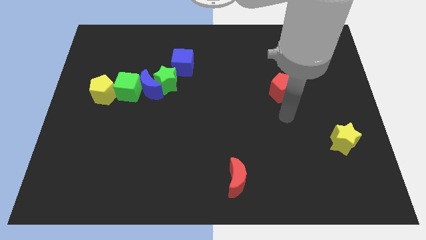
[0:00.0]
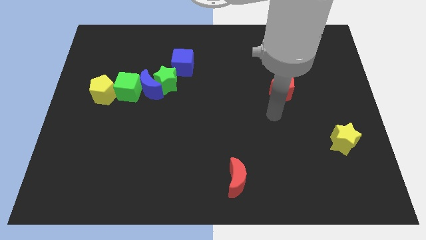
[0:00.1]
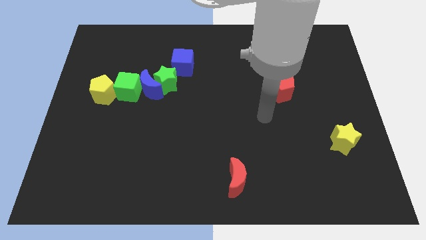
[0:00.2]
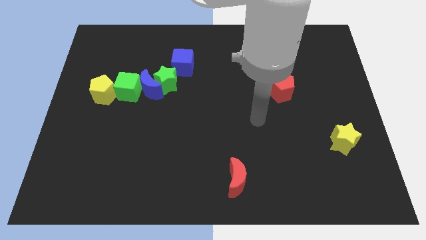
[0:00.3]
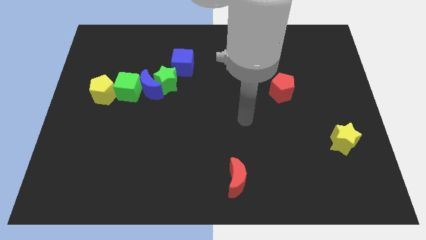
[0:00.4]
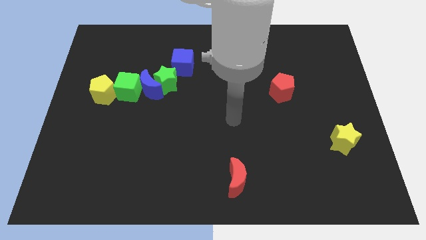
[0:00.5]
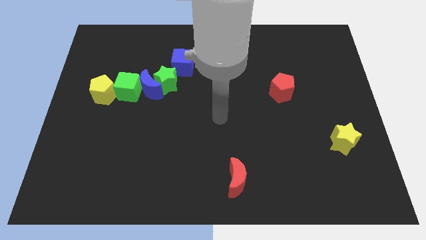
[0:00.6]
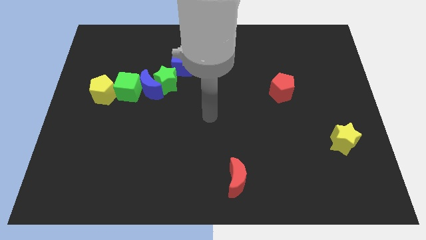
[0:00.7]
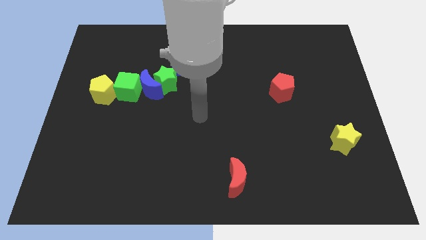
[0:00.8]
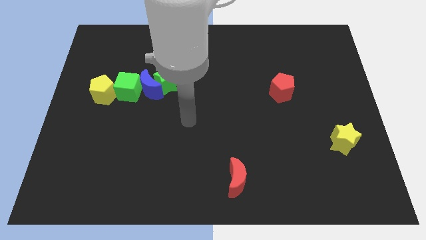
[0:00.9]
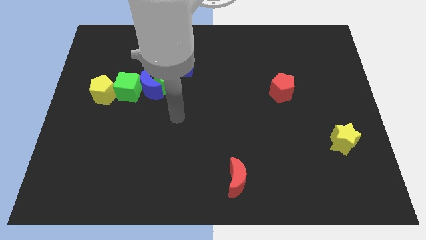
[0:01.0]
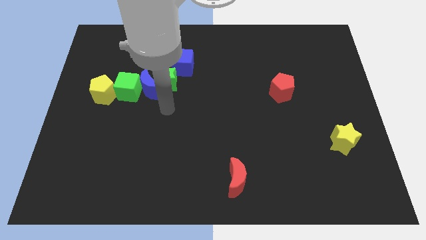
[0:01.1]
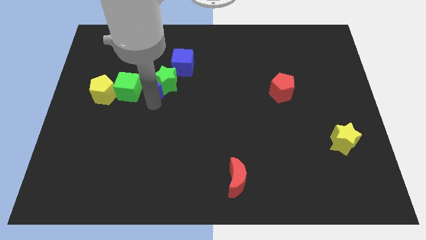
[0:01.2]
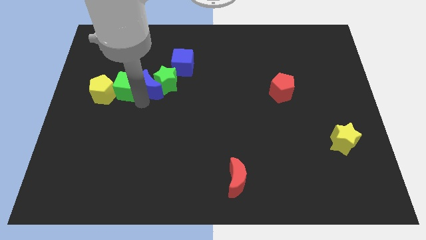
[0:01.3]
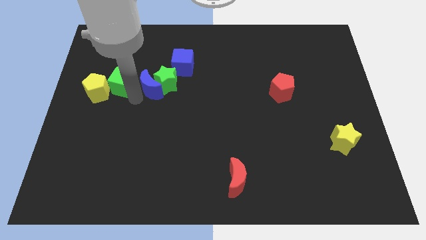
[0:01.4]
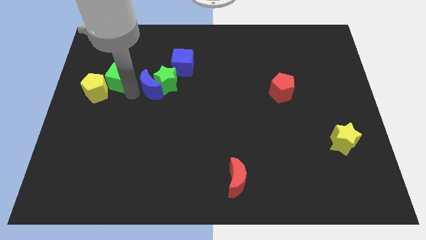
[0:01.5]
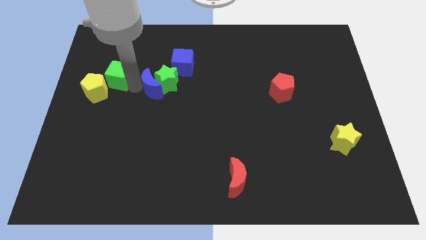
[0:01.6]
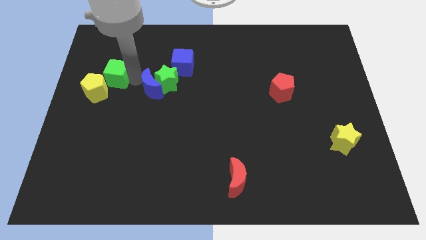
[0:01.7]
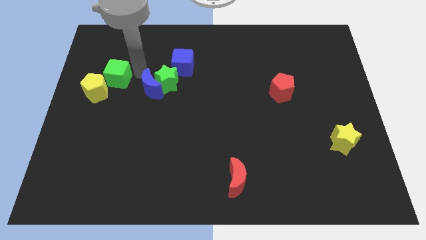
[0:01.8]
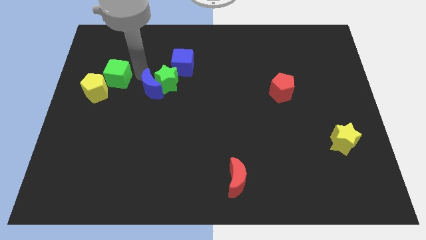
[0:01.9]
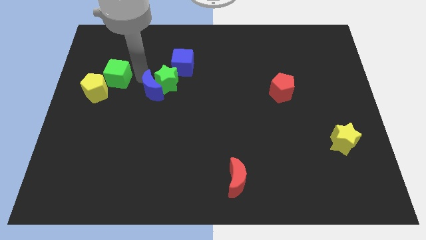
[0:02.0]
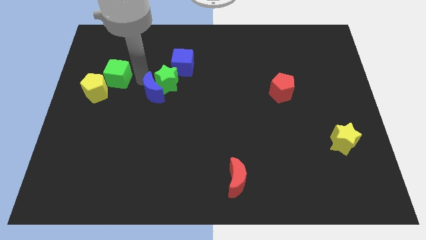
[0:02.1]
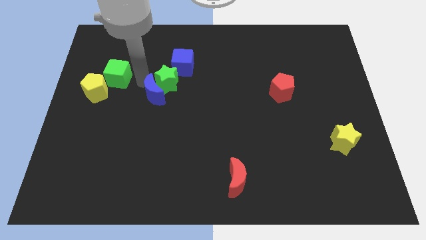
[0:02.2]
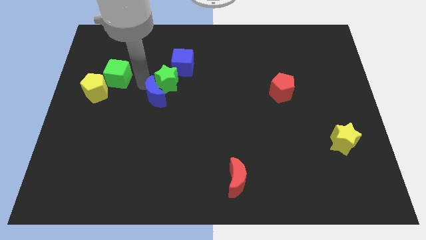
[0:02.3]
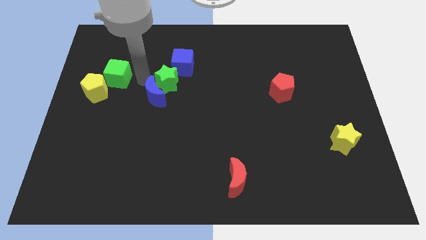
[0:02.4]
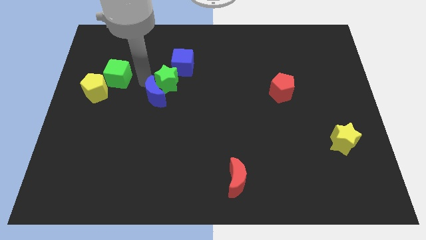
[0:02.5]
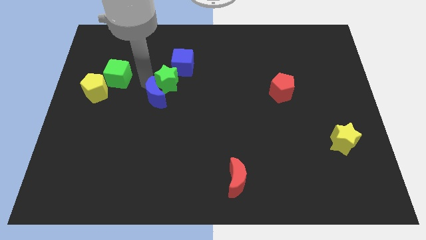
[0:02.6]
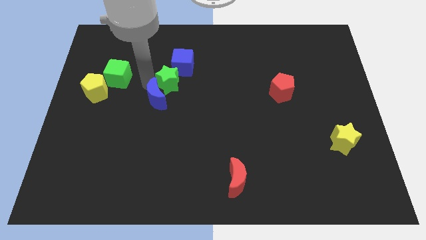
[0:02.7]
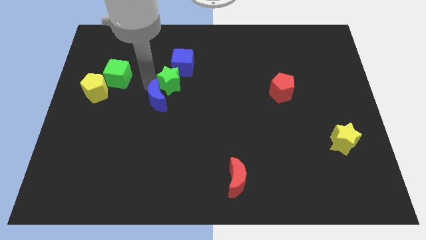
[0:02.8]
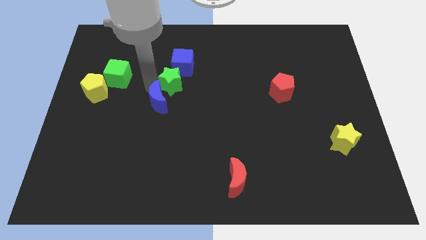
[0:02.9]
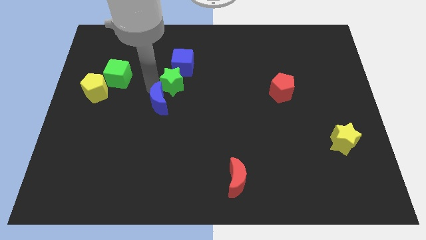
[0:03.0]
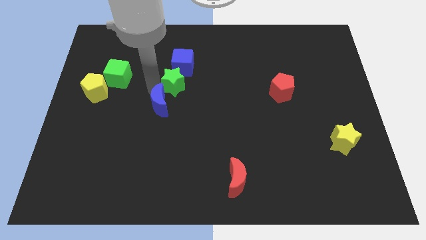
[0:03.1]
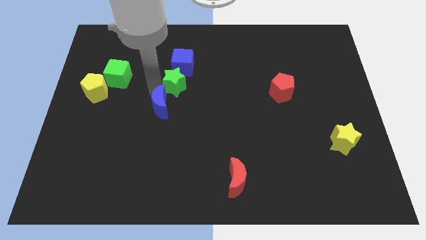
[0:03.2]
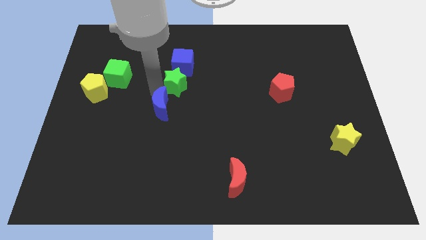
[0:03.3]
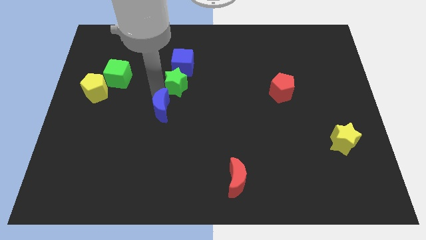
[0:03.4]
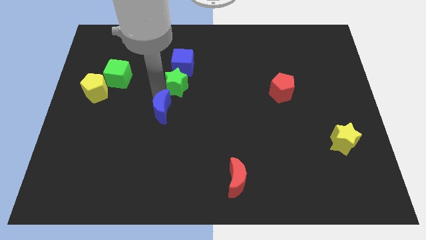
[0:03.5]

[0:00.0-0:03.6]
pull the blue moon apart from the green star and green cube

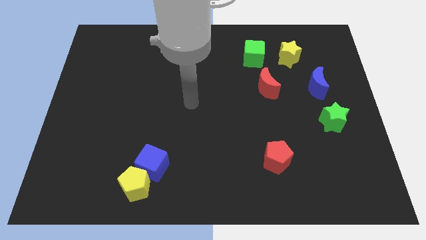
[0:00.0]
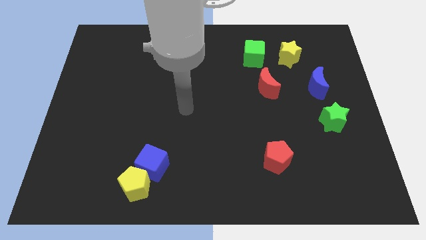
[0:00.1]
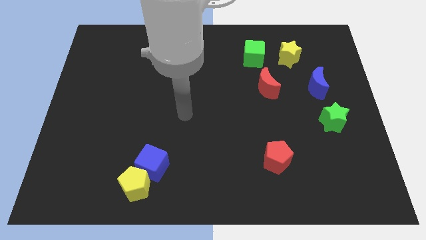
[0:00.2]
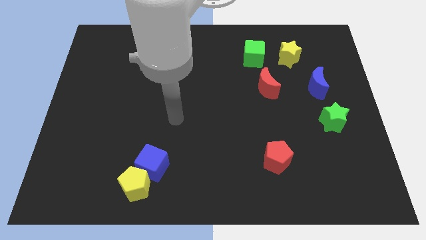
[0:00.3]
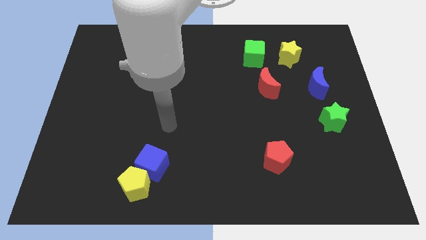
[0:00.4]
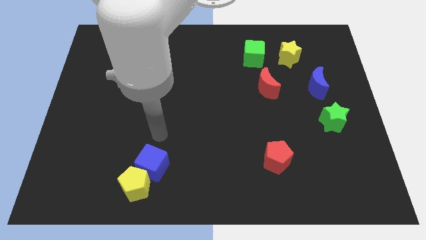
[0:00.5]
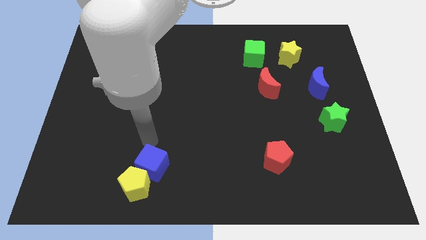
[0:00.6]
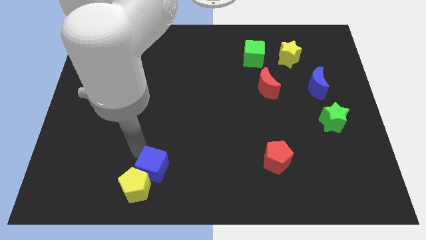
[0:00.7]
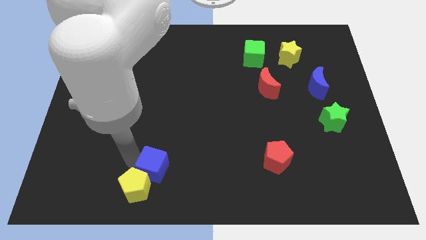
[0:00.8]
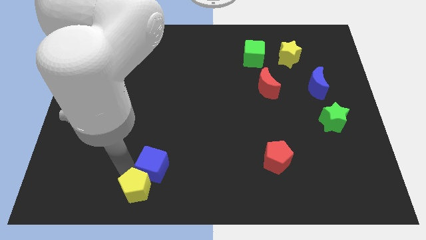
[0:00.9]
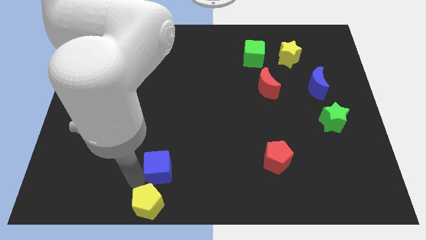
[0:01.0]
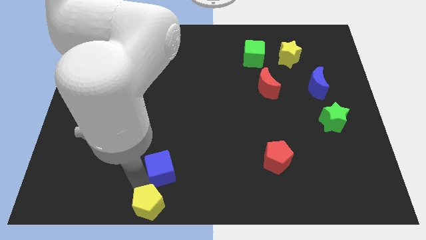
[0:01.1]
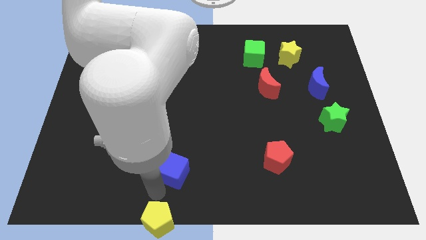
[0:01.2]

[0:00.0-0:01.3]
separate the blue cube from the yellow pentagon

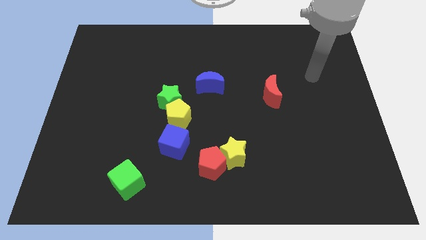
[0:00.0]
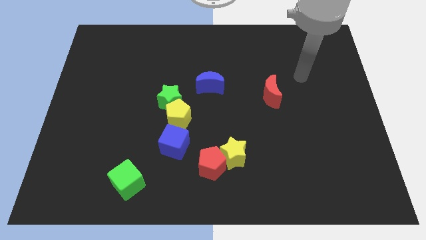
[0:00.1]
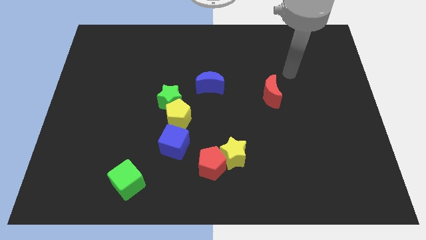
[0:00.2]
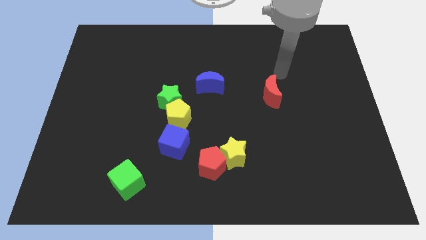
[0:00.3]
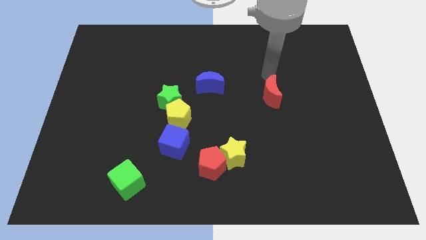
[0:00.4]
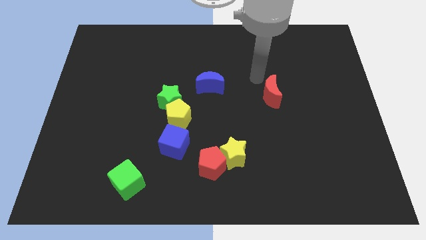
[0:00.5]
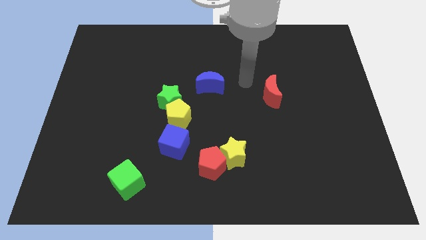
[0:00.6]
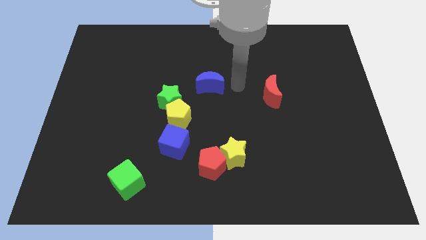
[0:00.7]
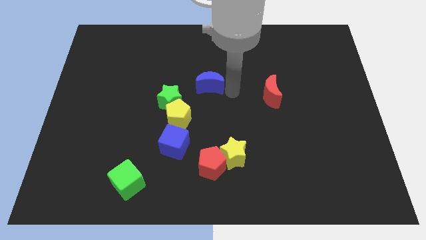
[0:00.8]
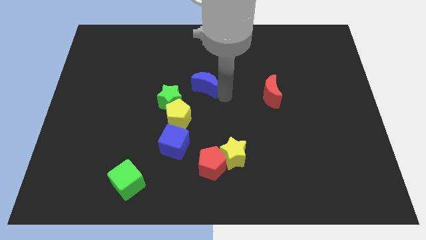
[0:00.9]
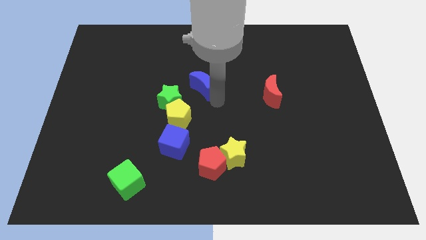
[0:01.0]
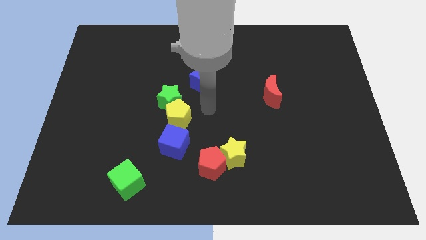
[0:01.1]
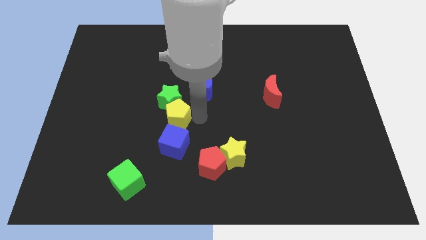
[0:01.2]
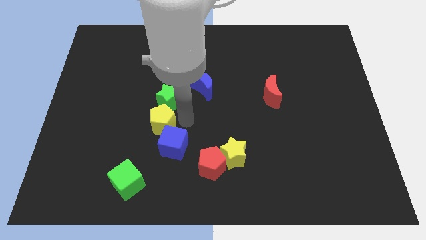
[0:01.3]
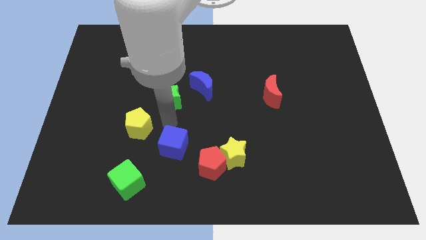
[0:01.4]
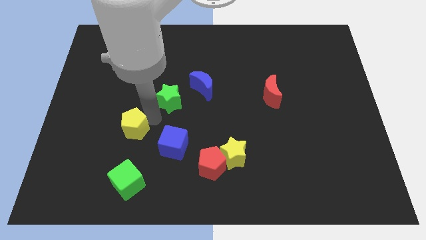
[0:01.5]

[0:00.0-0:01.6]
separate the green star from the yellow pentagon

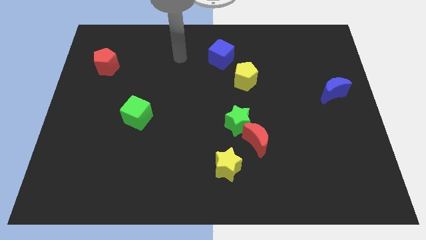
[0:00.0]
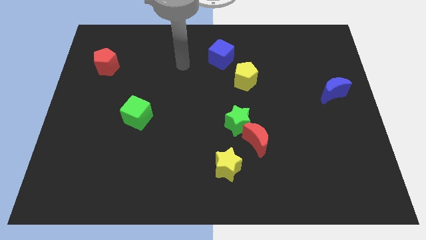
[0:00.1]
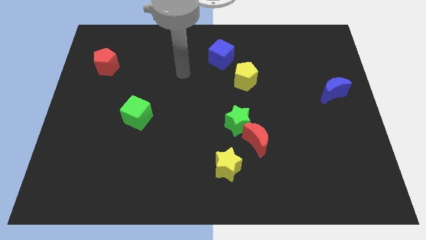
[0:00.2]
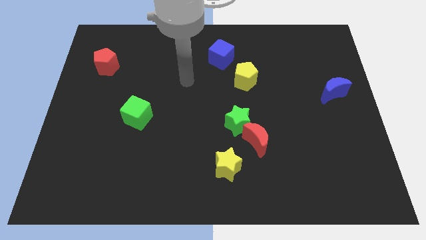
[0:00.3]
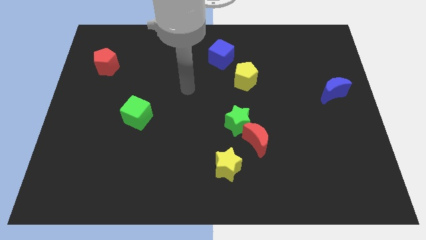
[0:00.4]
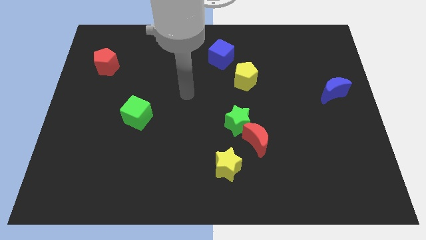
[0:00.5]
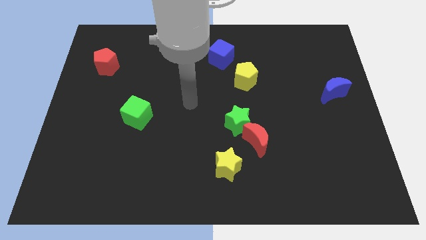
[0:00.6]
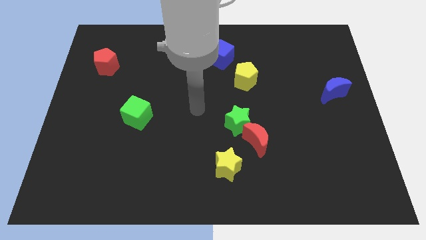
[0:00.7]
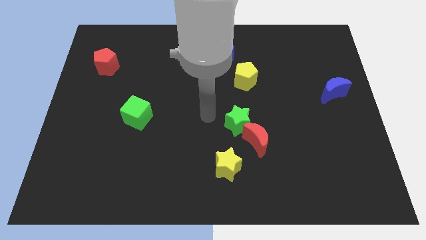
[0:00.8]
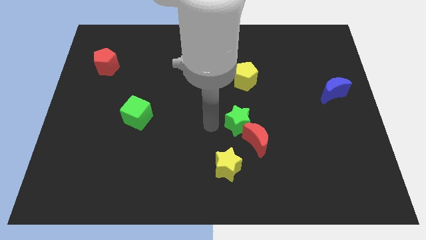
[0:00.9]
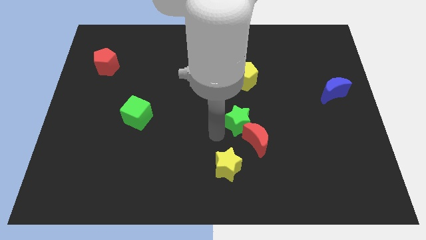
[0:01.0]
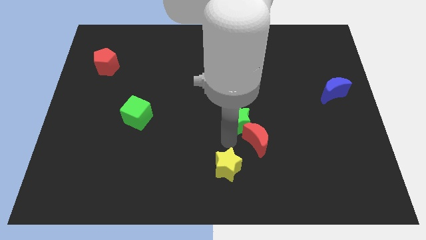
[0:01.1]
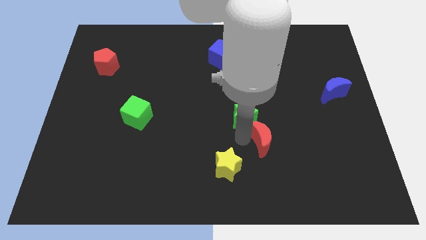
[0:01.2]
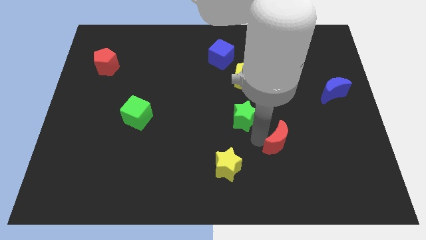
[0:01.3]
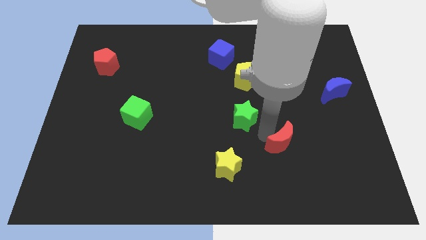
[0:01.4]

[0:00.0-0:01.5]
move the green star away from the red moon

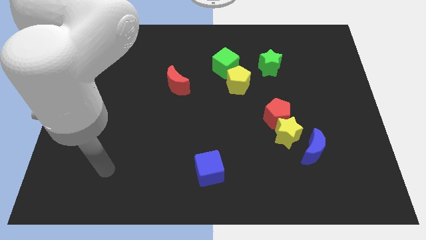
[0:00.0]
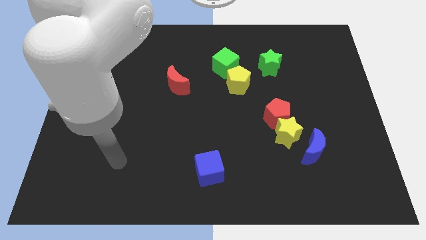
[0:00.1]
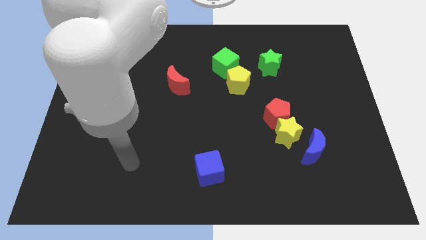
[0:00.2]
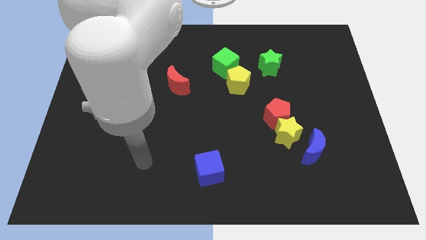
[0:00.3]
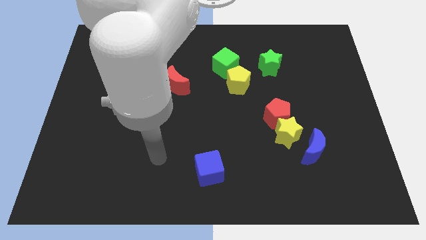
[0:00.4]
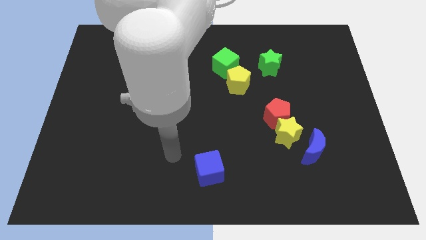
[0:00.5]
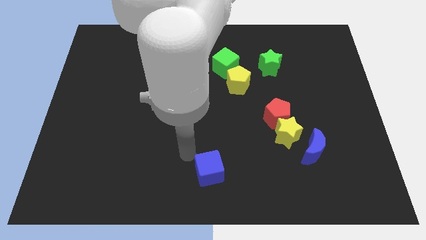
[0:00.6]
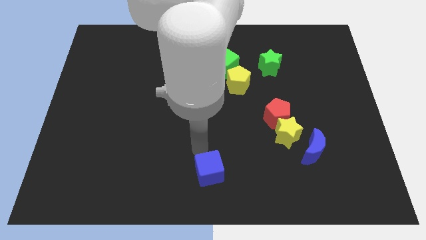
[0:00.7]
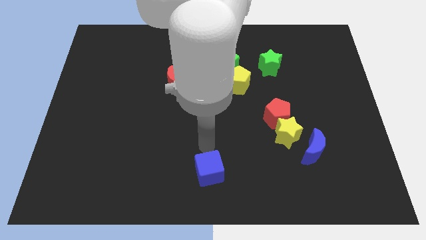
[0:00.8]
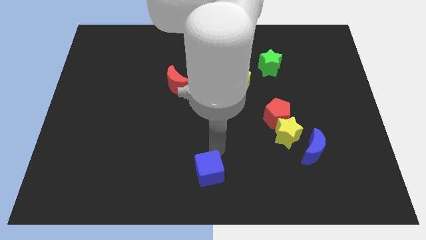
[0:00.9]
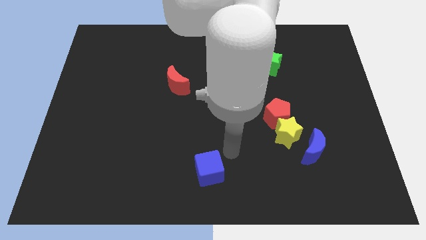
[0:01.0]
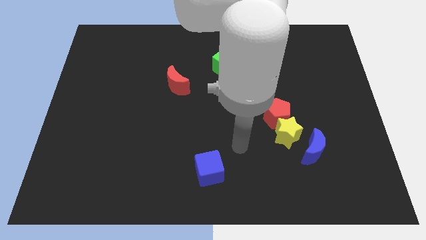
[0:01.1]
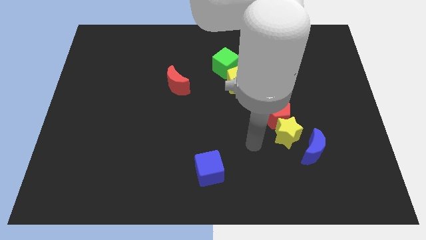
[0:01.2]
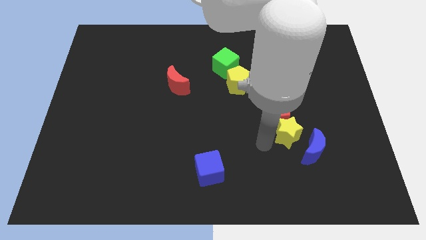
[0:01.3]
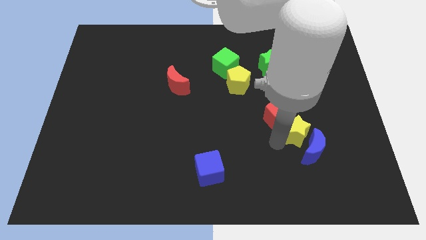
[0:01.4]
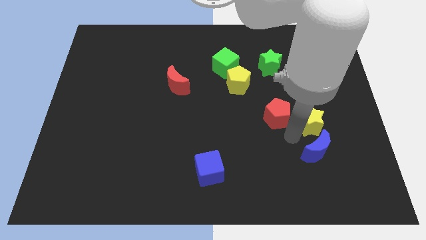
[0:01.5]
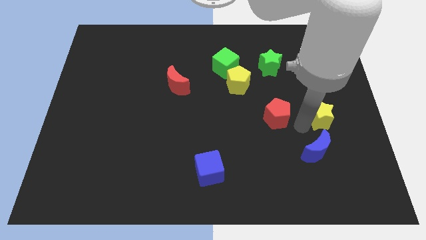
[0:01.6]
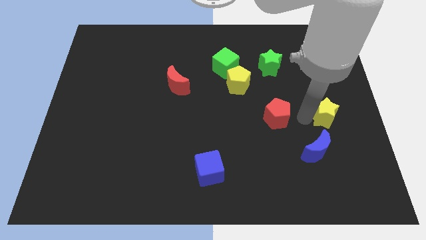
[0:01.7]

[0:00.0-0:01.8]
separate the red pentagon from the yellow star
